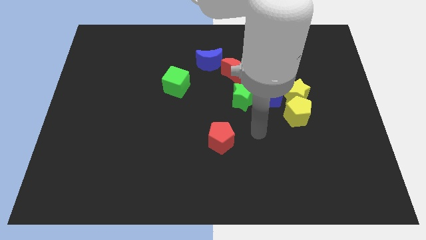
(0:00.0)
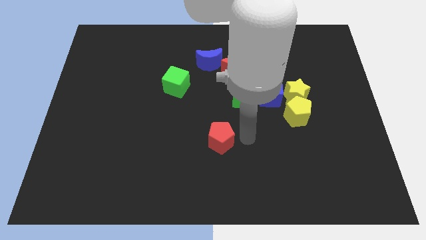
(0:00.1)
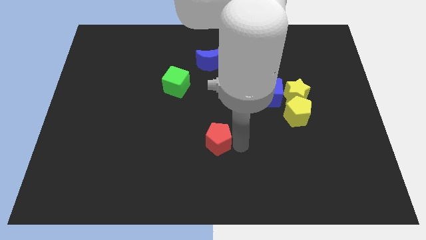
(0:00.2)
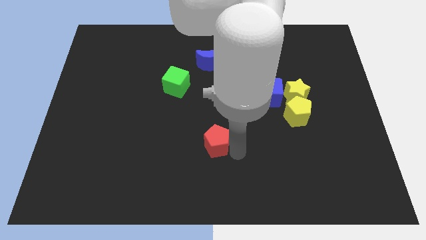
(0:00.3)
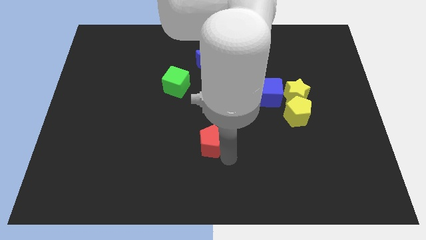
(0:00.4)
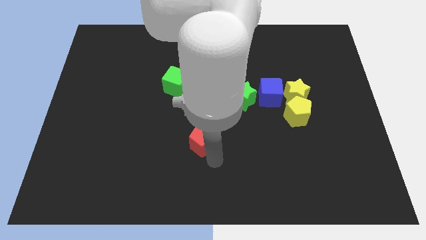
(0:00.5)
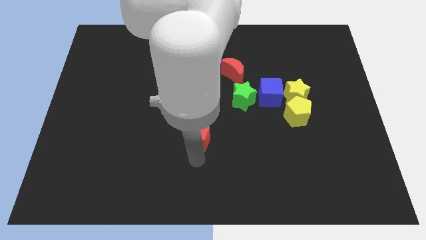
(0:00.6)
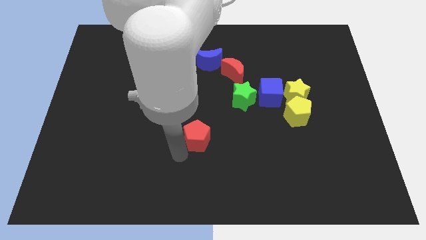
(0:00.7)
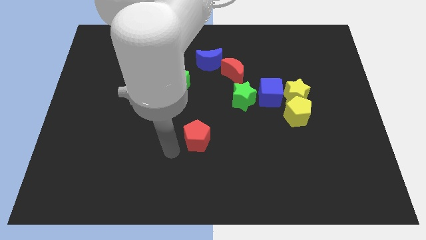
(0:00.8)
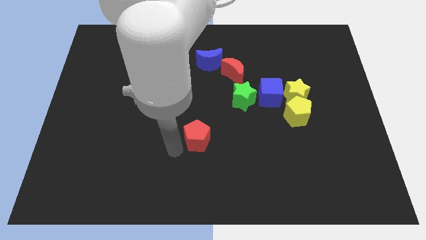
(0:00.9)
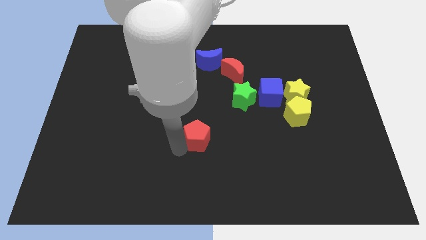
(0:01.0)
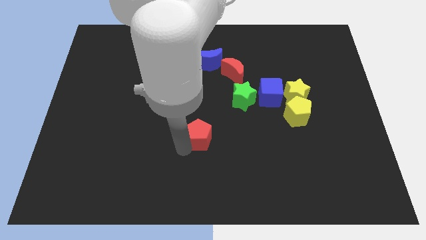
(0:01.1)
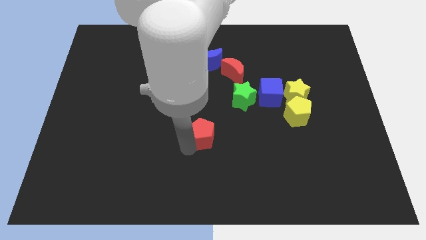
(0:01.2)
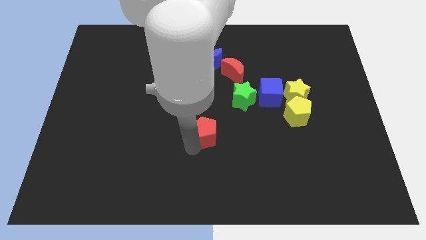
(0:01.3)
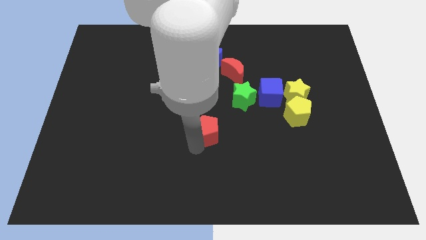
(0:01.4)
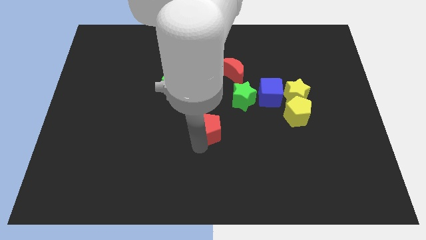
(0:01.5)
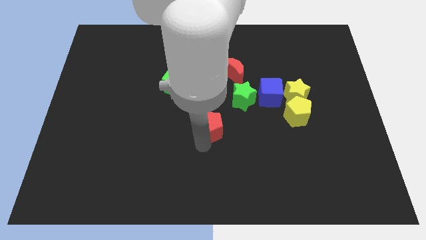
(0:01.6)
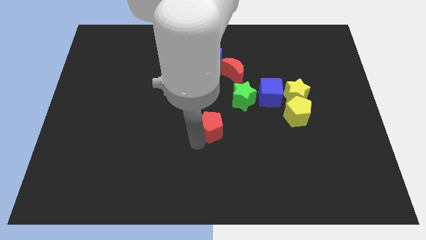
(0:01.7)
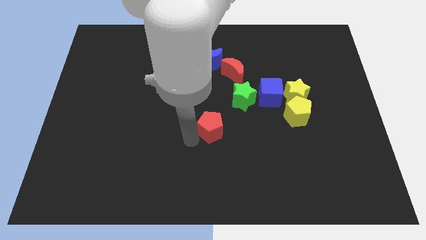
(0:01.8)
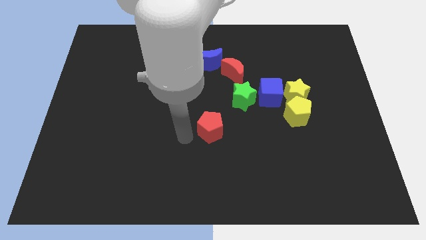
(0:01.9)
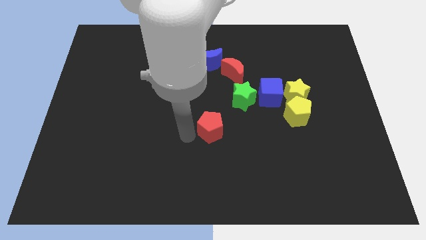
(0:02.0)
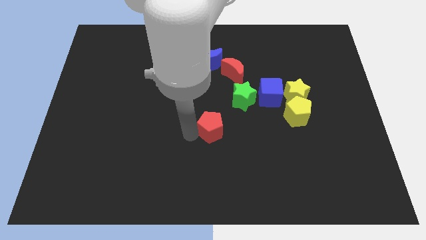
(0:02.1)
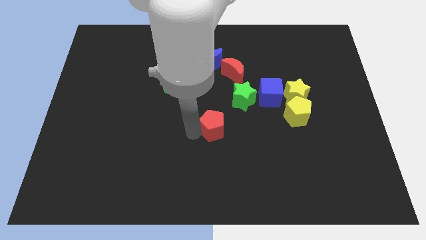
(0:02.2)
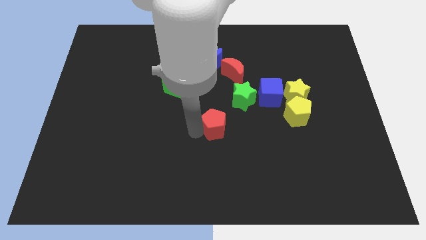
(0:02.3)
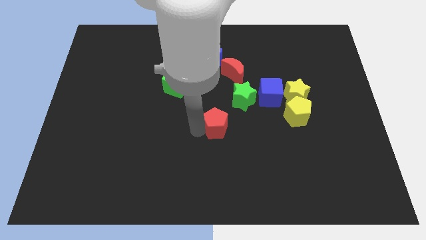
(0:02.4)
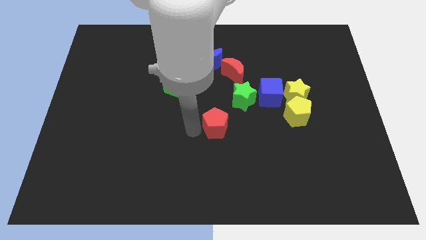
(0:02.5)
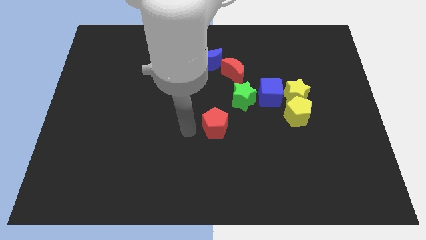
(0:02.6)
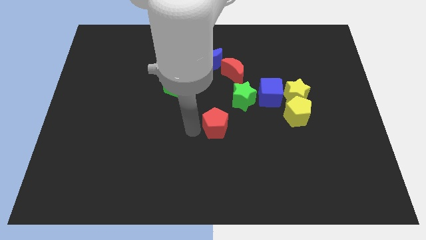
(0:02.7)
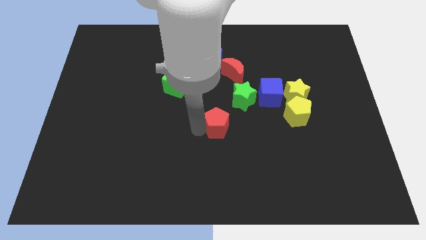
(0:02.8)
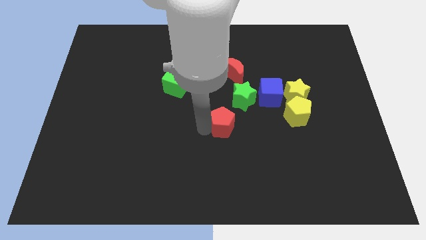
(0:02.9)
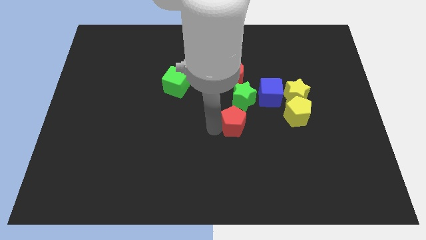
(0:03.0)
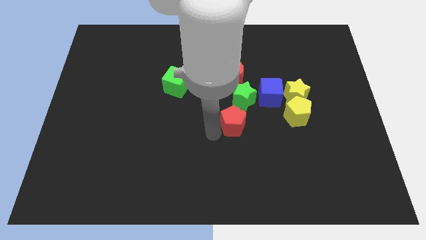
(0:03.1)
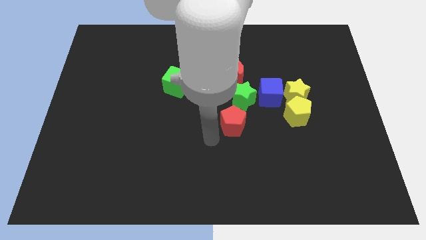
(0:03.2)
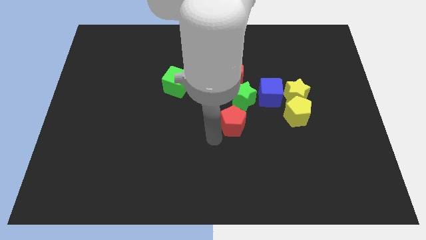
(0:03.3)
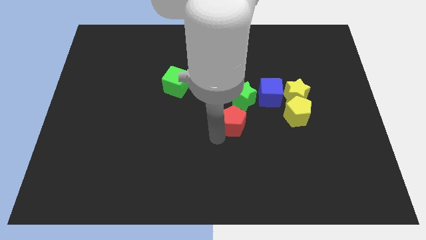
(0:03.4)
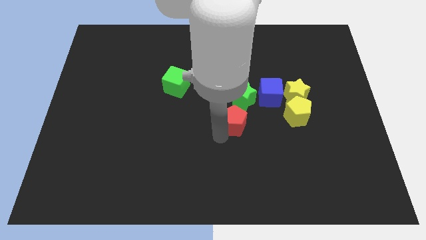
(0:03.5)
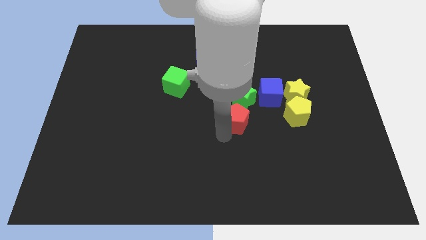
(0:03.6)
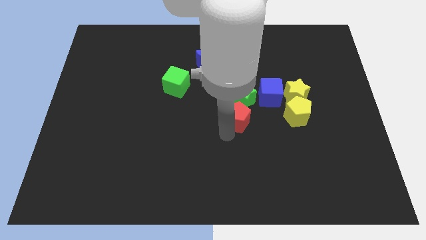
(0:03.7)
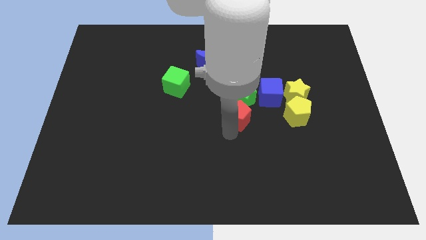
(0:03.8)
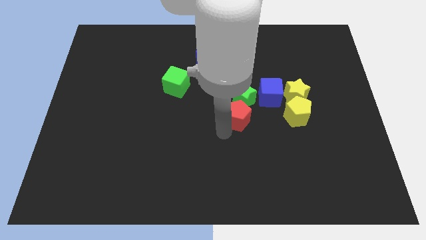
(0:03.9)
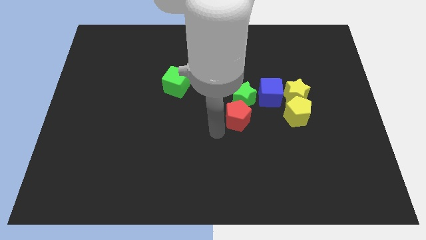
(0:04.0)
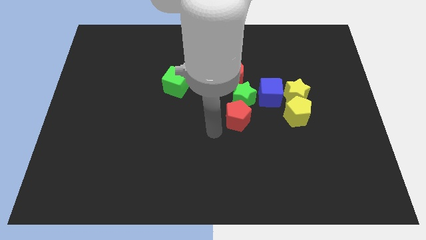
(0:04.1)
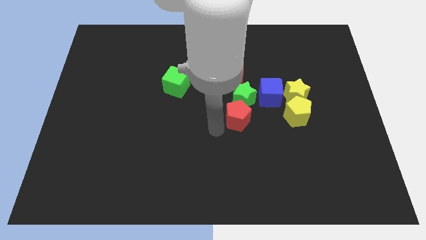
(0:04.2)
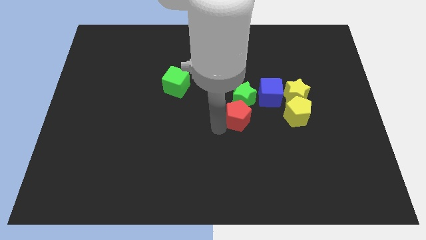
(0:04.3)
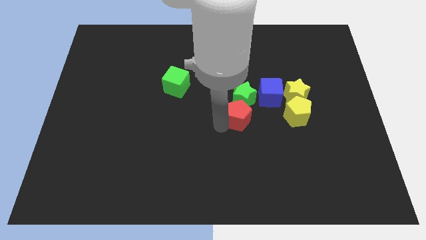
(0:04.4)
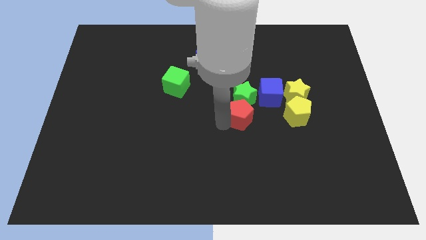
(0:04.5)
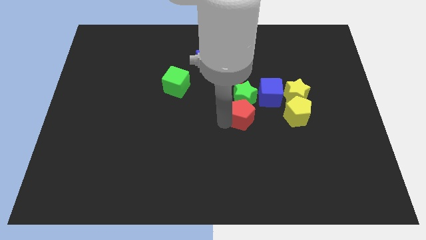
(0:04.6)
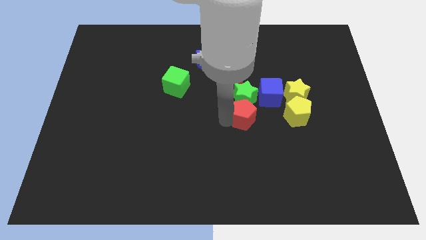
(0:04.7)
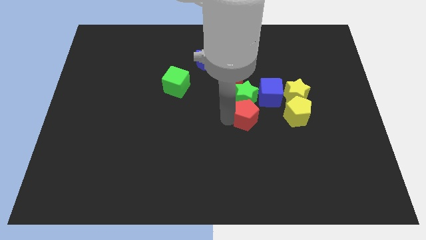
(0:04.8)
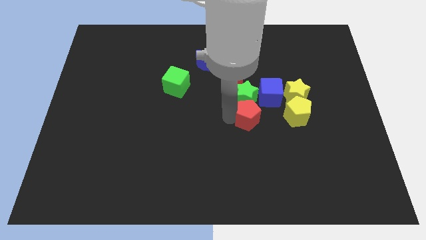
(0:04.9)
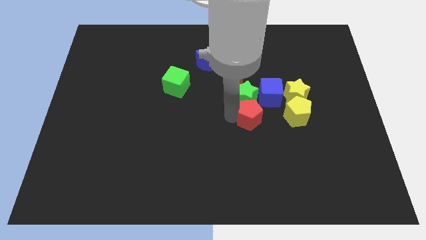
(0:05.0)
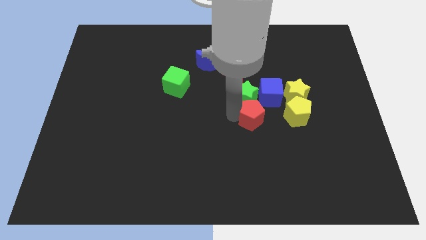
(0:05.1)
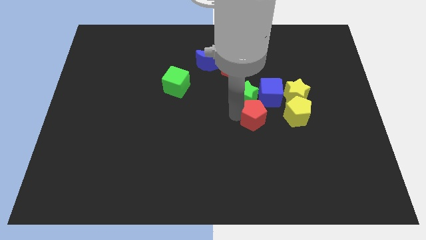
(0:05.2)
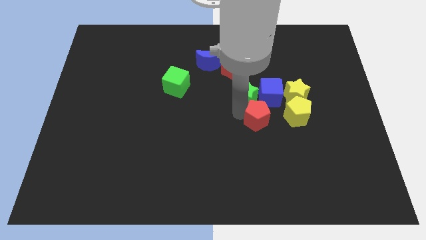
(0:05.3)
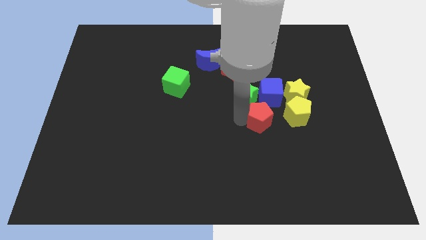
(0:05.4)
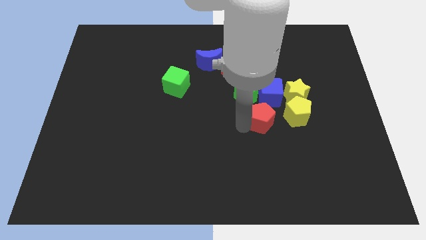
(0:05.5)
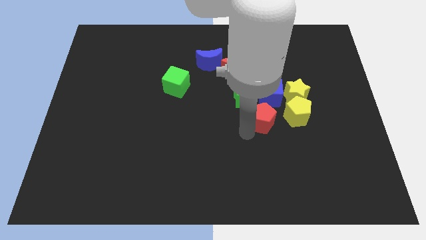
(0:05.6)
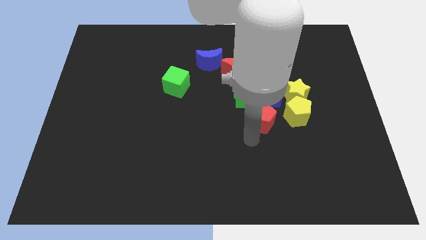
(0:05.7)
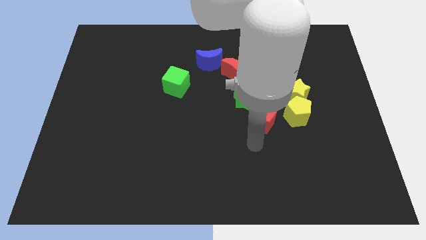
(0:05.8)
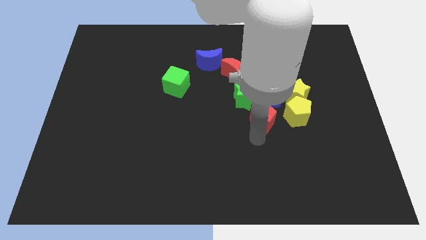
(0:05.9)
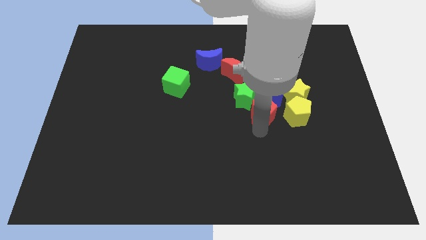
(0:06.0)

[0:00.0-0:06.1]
put the red pentagon to the blue cube

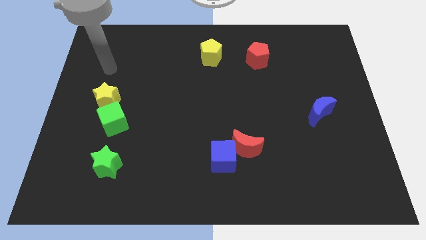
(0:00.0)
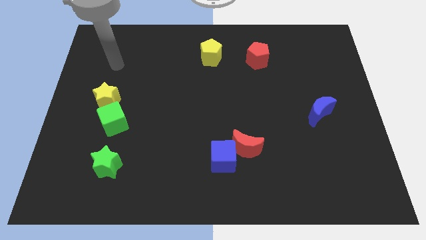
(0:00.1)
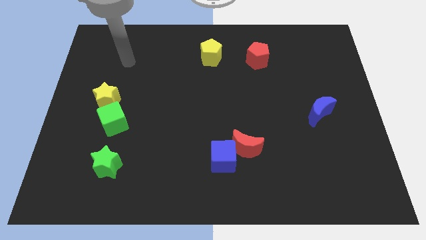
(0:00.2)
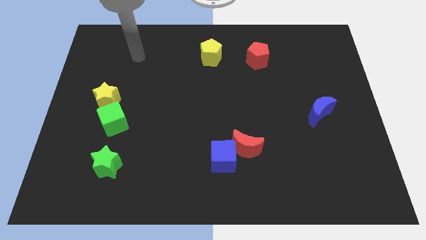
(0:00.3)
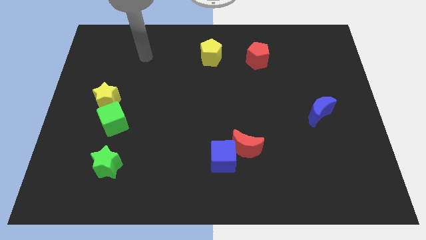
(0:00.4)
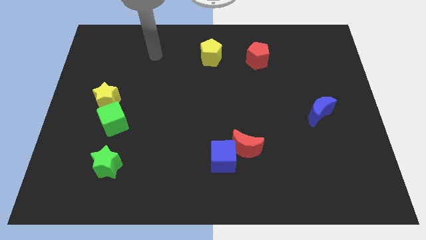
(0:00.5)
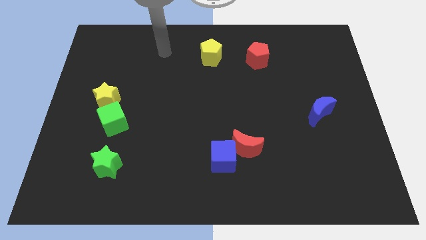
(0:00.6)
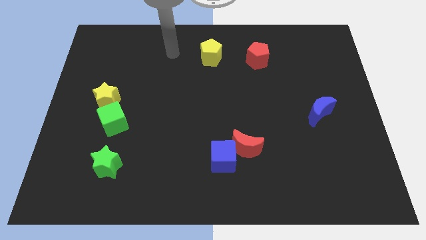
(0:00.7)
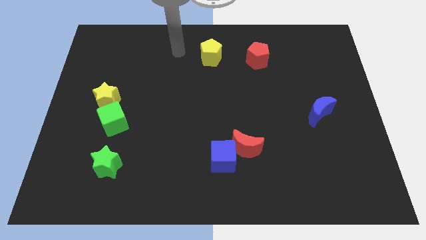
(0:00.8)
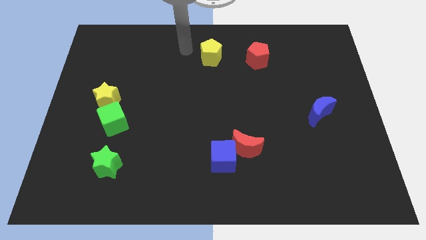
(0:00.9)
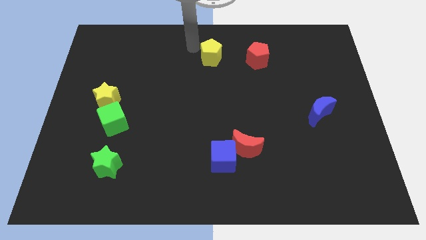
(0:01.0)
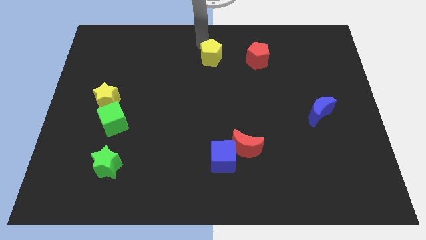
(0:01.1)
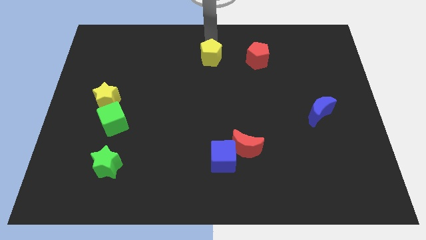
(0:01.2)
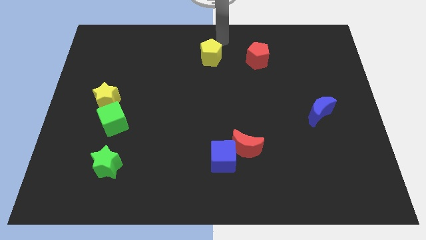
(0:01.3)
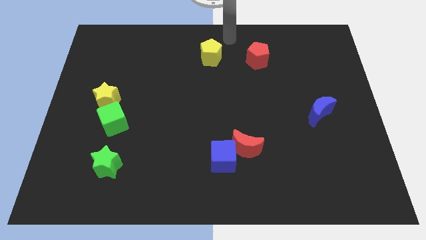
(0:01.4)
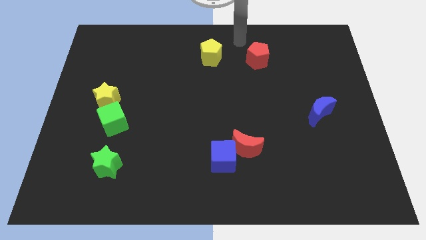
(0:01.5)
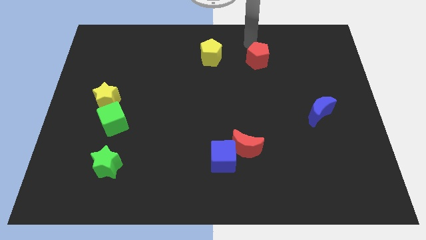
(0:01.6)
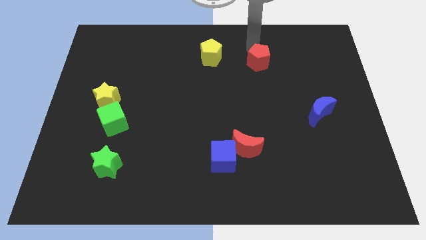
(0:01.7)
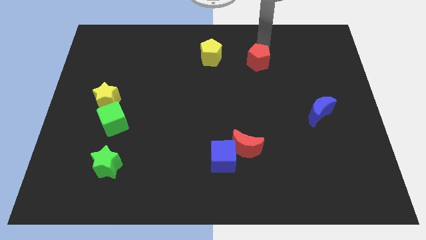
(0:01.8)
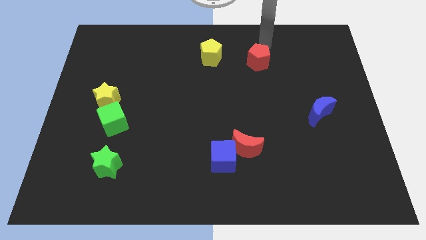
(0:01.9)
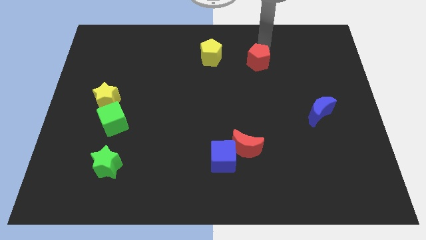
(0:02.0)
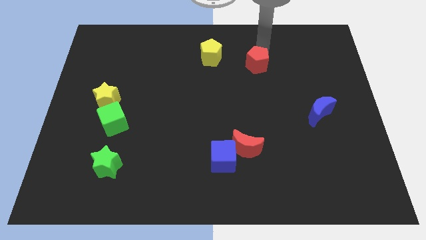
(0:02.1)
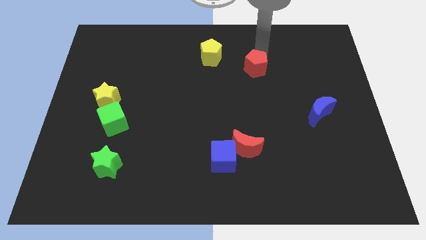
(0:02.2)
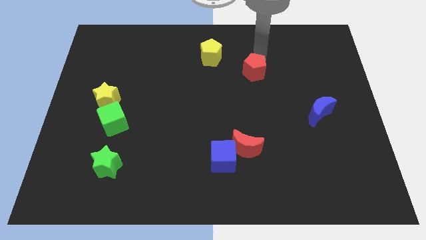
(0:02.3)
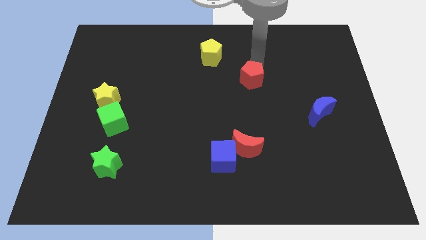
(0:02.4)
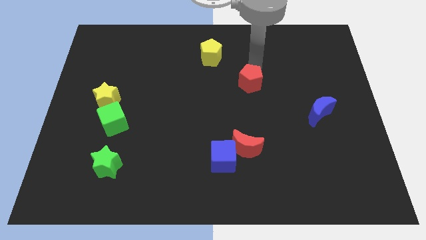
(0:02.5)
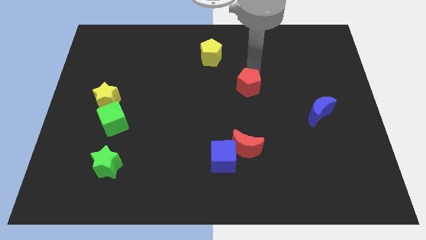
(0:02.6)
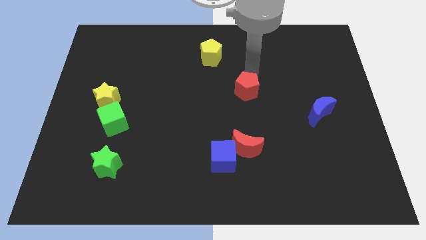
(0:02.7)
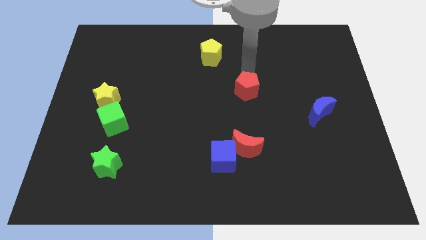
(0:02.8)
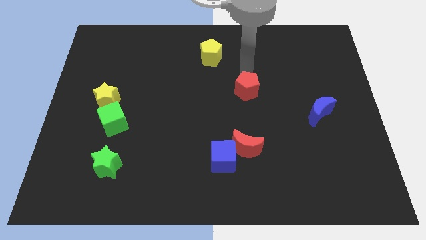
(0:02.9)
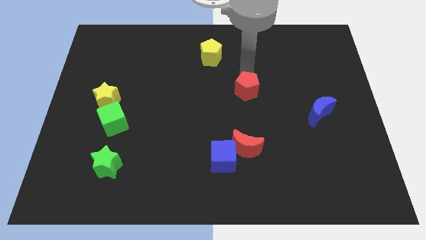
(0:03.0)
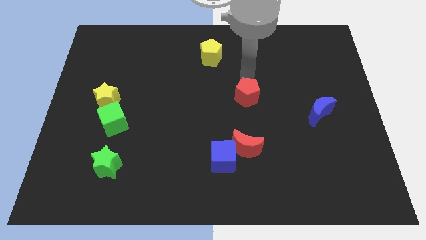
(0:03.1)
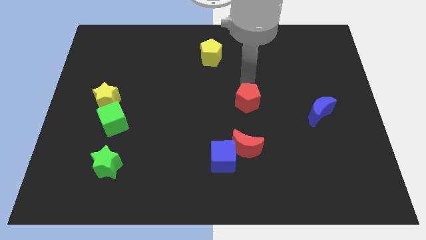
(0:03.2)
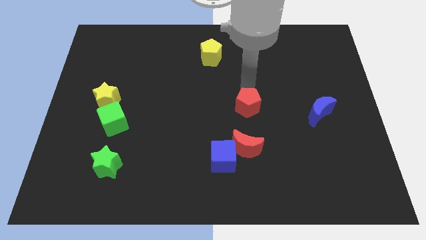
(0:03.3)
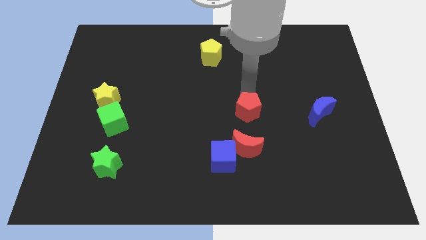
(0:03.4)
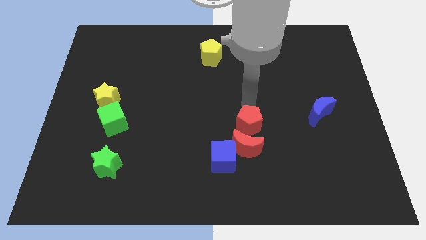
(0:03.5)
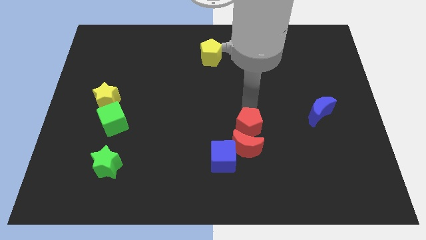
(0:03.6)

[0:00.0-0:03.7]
put the red pentagon next to the red moon
